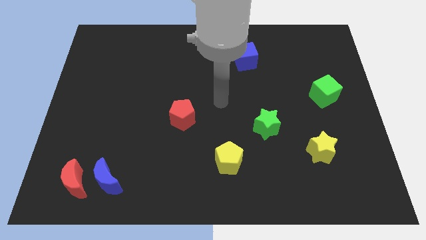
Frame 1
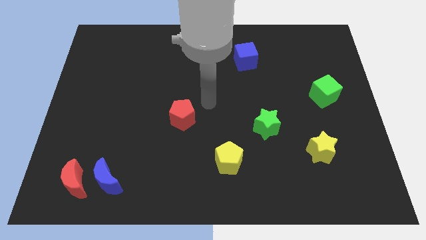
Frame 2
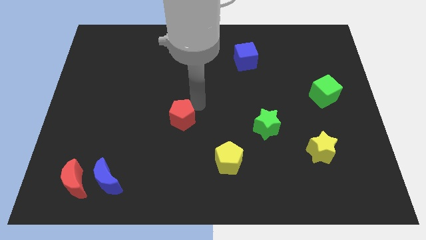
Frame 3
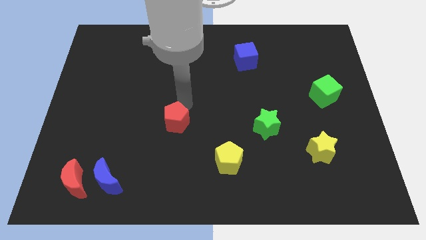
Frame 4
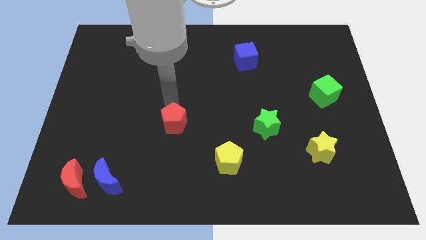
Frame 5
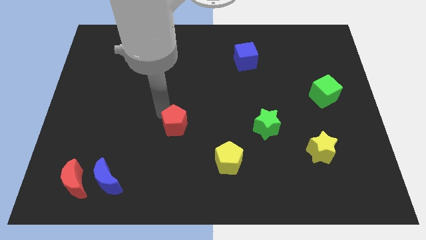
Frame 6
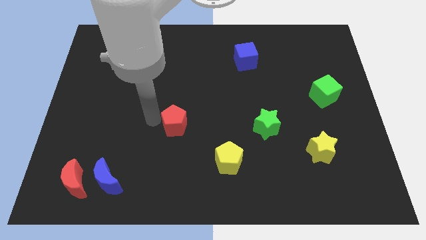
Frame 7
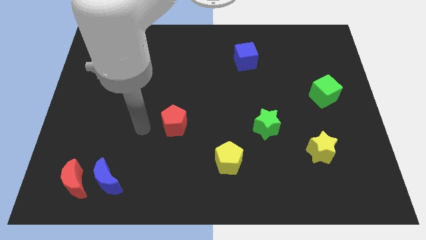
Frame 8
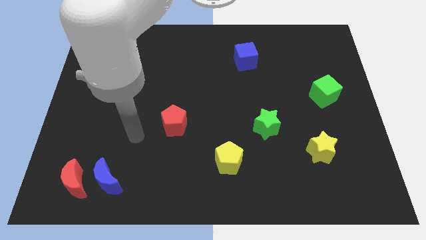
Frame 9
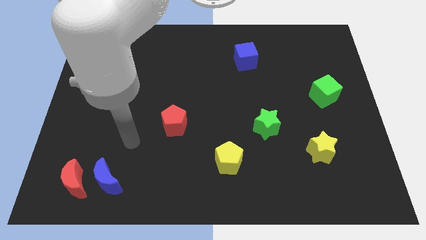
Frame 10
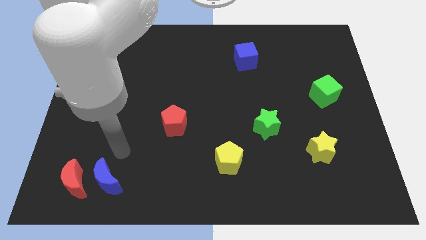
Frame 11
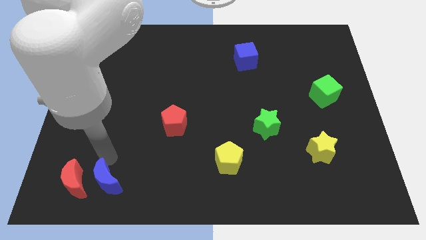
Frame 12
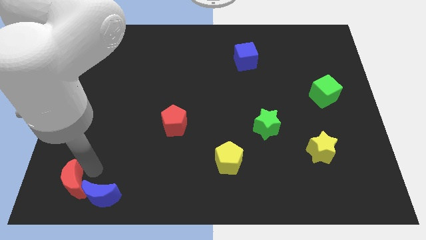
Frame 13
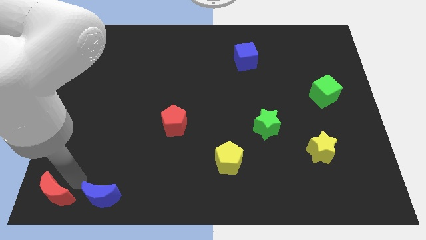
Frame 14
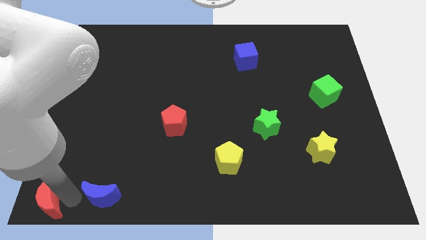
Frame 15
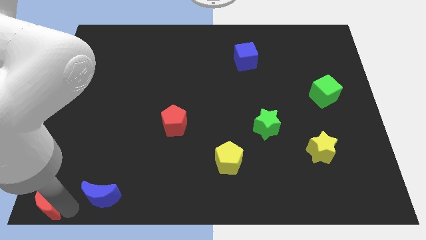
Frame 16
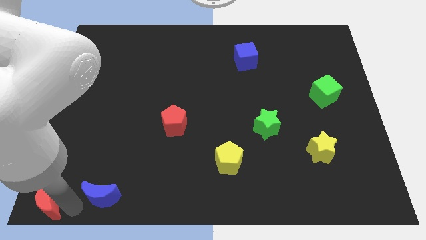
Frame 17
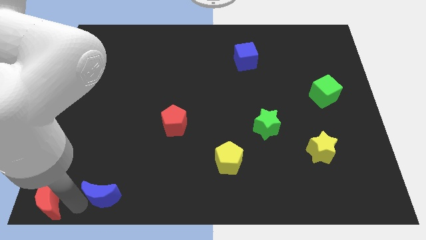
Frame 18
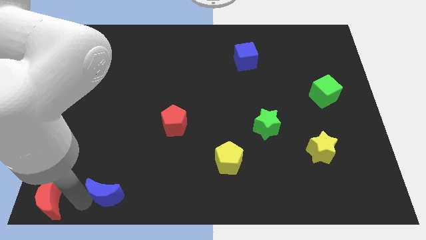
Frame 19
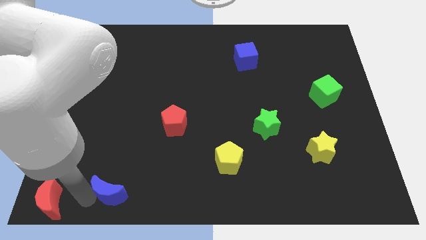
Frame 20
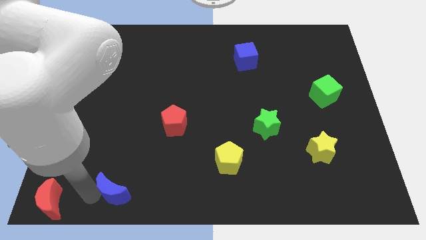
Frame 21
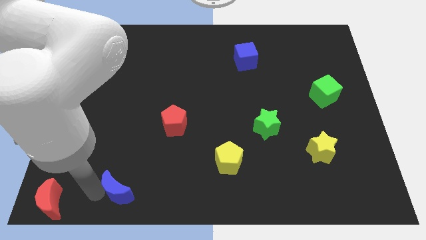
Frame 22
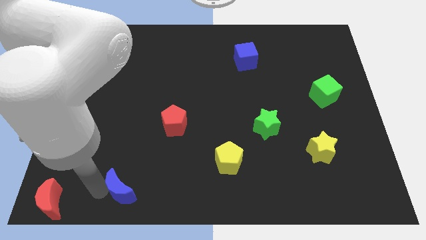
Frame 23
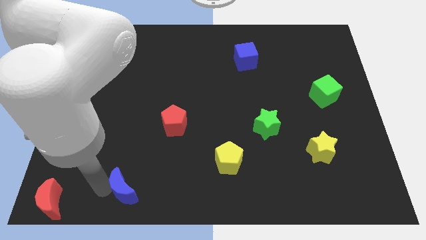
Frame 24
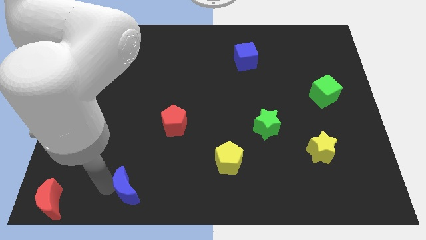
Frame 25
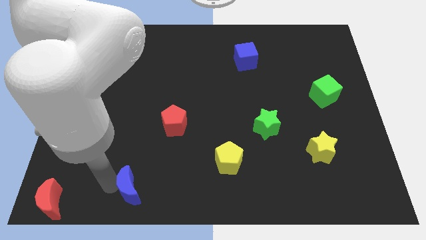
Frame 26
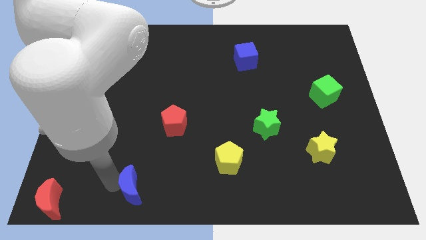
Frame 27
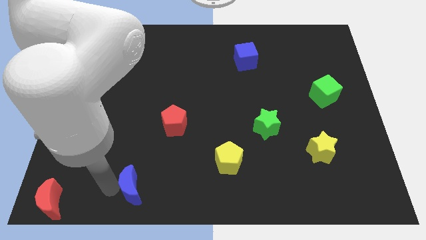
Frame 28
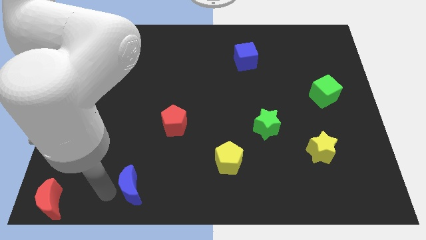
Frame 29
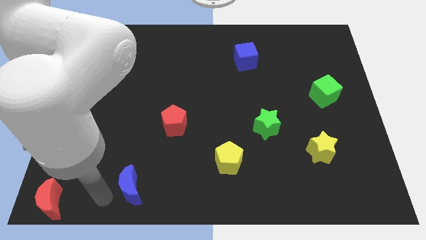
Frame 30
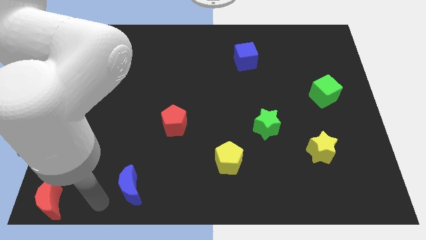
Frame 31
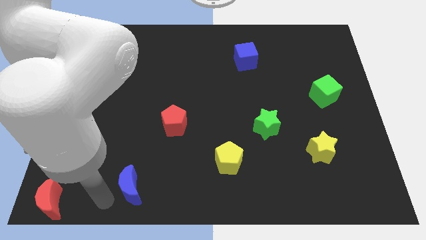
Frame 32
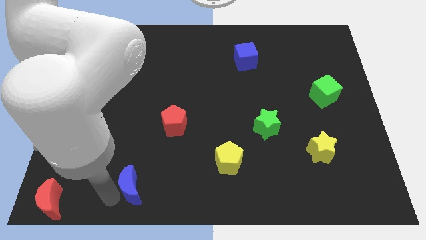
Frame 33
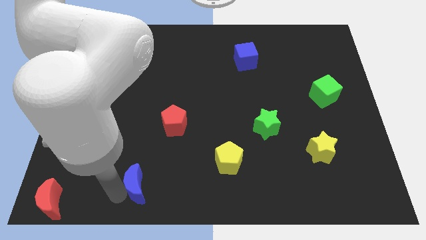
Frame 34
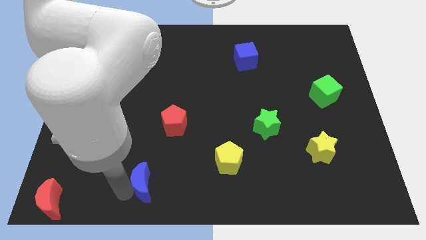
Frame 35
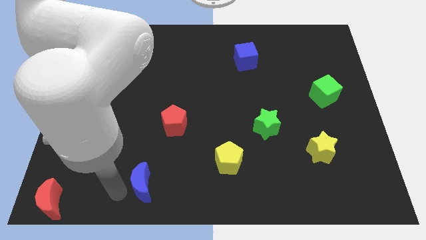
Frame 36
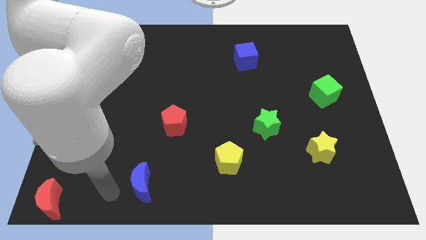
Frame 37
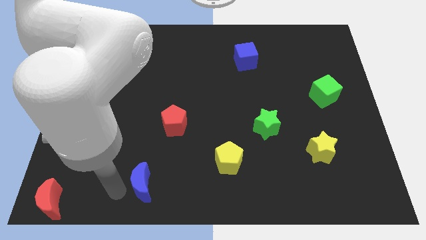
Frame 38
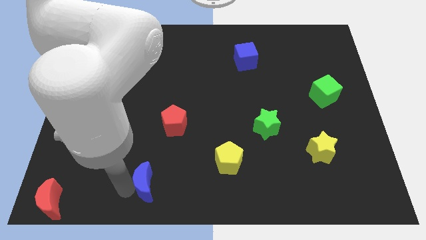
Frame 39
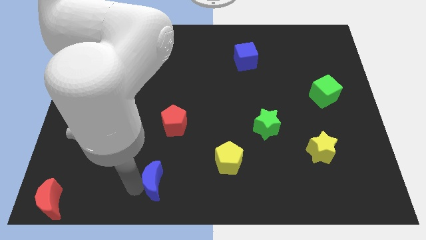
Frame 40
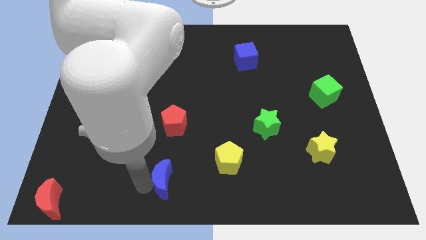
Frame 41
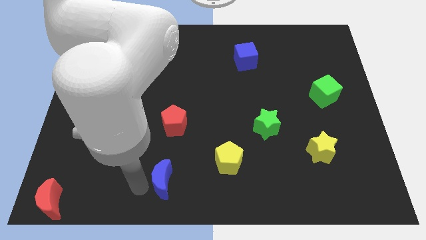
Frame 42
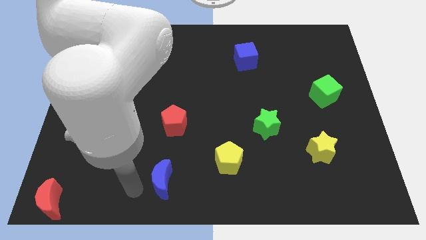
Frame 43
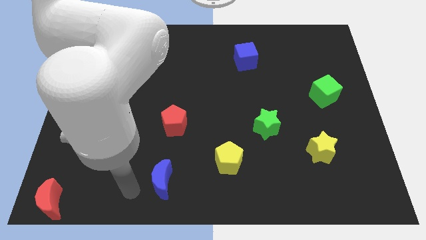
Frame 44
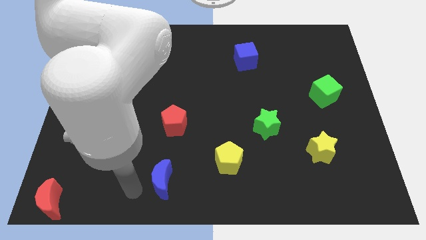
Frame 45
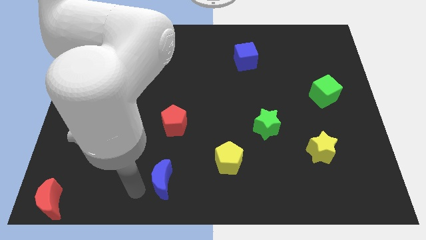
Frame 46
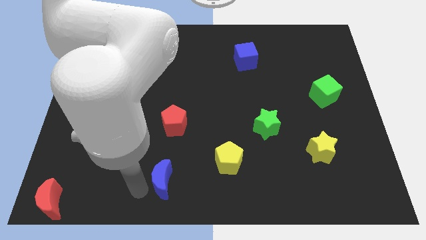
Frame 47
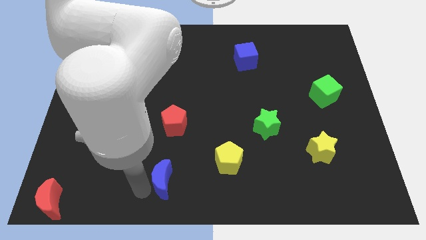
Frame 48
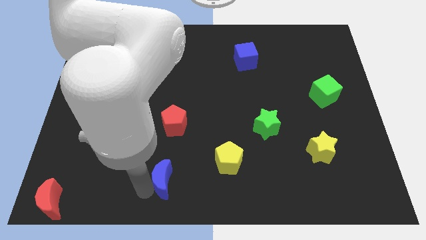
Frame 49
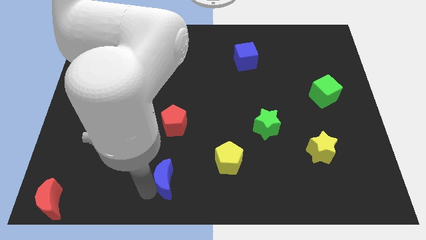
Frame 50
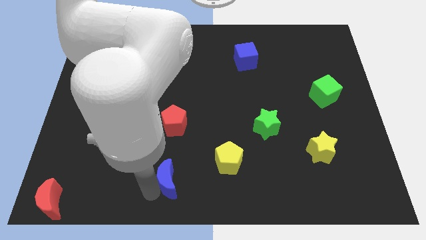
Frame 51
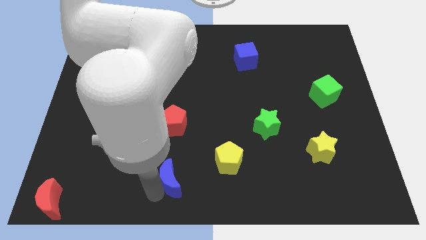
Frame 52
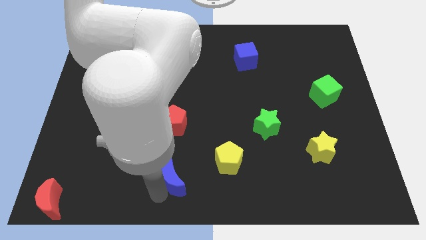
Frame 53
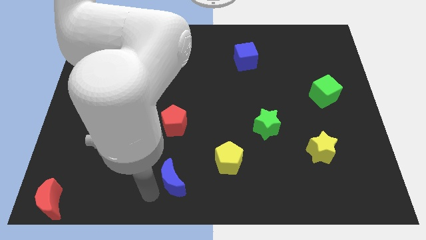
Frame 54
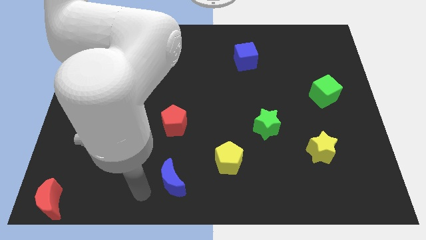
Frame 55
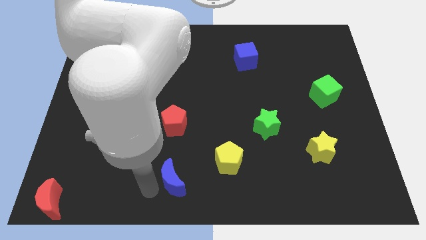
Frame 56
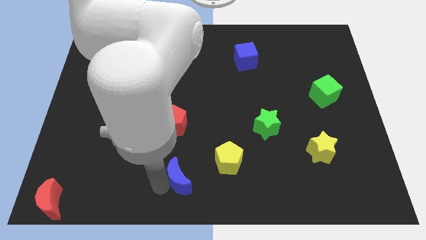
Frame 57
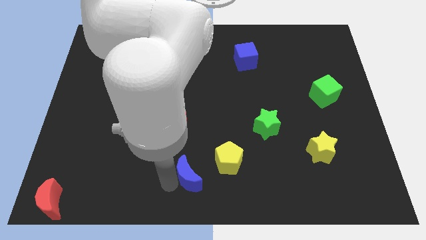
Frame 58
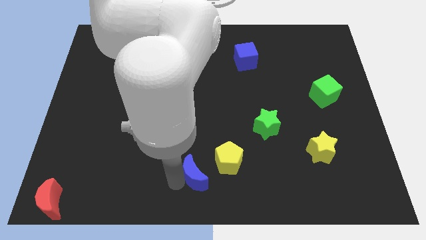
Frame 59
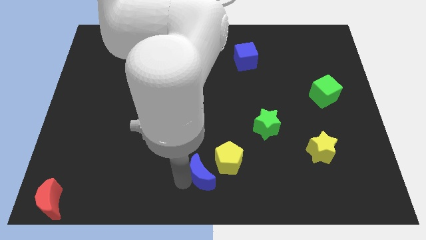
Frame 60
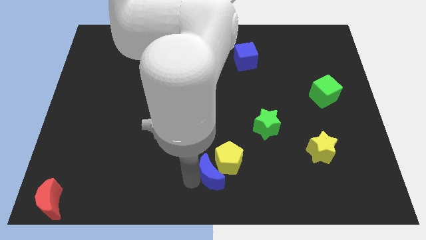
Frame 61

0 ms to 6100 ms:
push the blue moon to the yellow pentagon

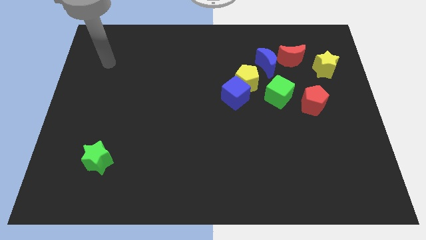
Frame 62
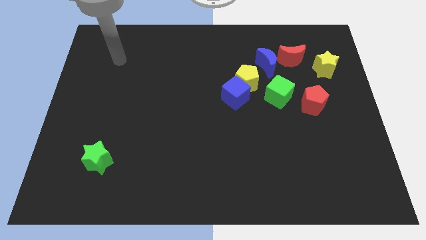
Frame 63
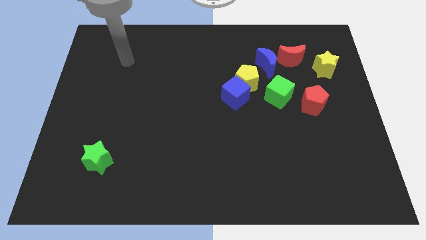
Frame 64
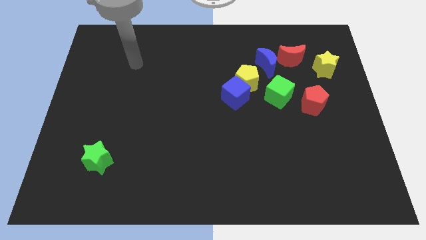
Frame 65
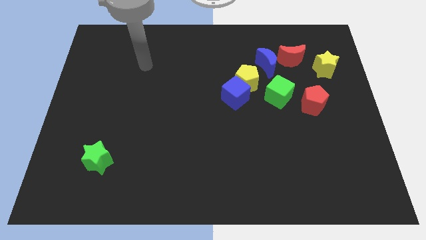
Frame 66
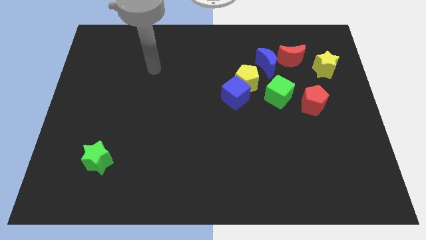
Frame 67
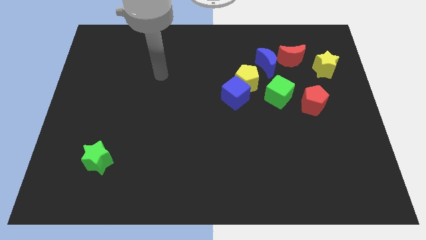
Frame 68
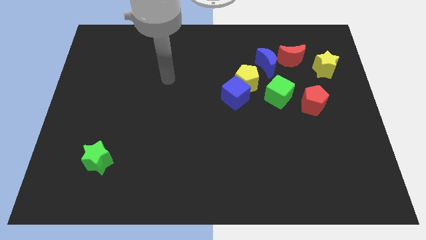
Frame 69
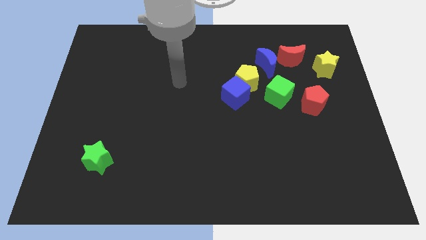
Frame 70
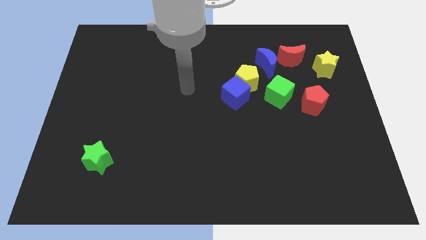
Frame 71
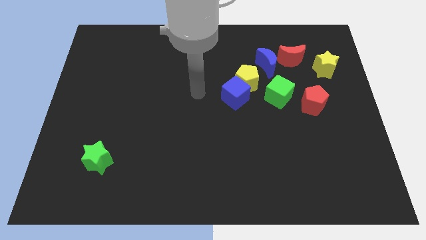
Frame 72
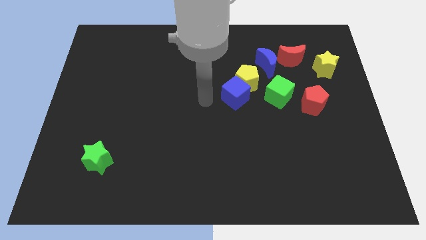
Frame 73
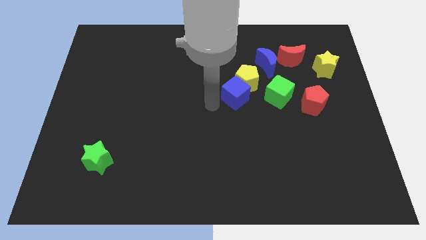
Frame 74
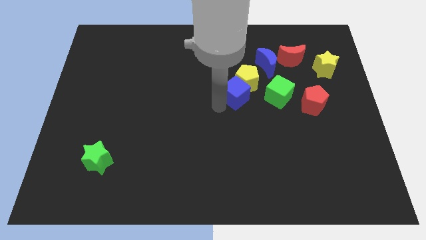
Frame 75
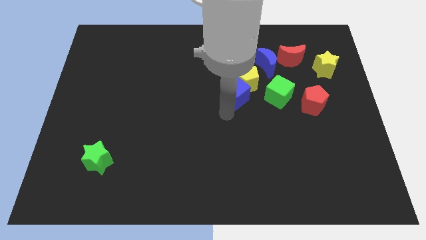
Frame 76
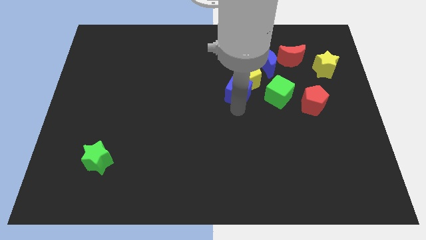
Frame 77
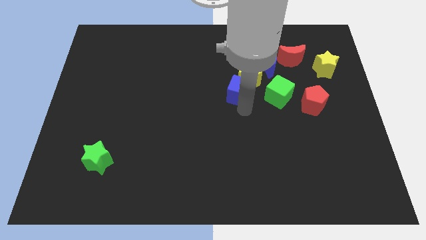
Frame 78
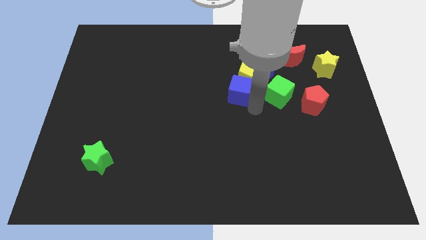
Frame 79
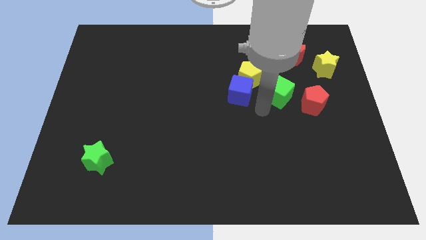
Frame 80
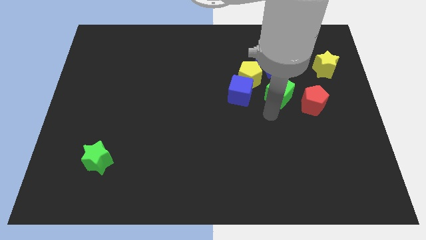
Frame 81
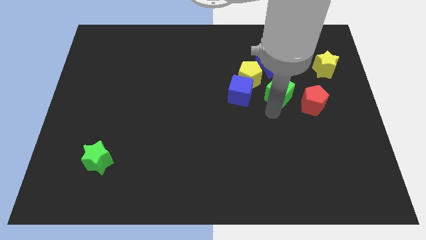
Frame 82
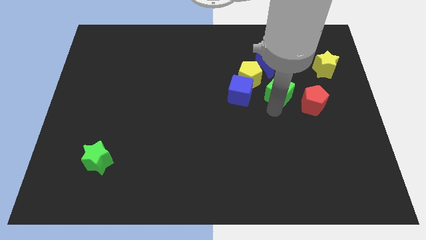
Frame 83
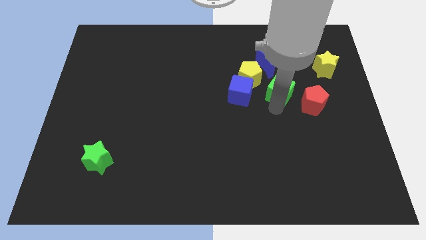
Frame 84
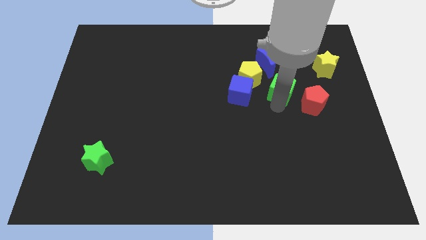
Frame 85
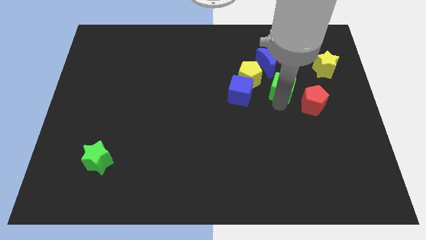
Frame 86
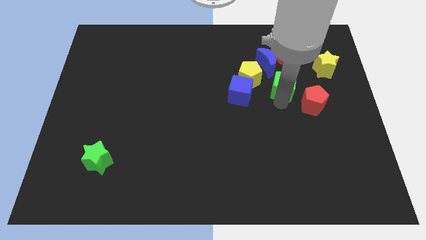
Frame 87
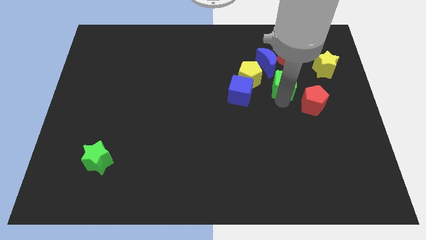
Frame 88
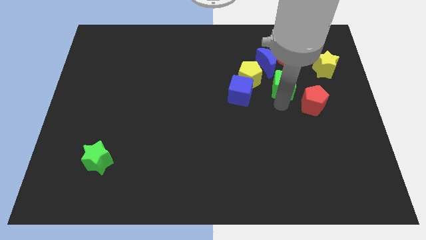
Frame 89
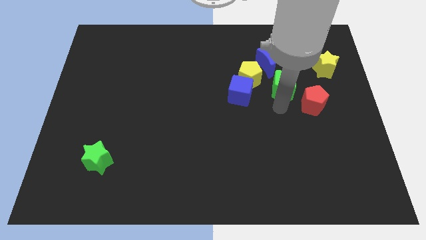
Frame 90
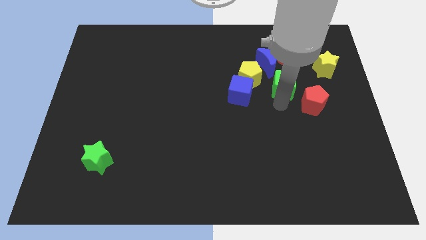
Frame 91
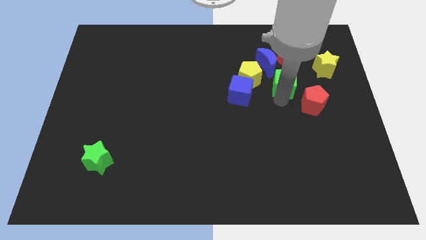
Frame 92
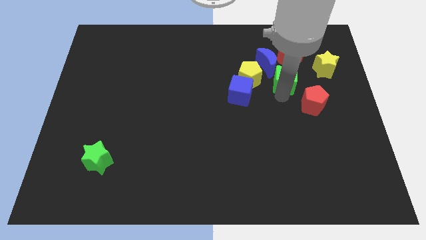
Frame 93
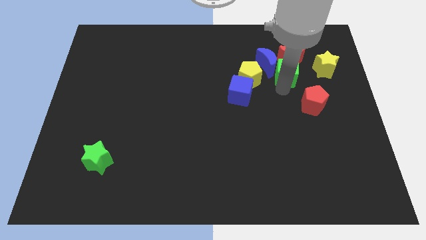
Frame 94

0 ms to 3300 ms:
push the green cube next to the red moon
